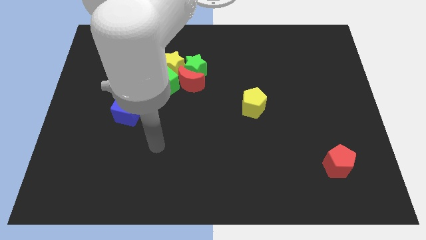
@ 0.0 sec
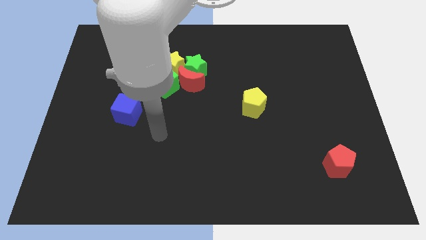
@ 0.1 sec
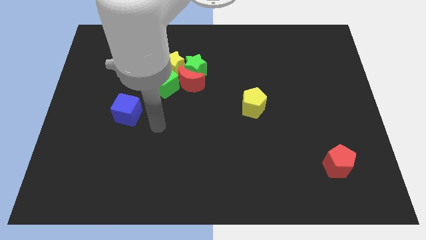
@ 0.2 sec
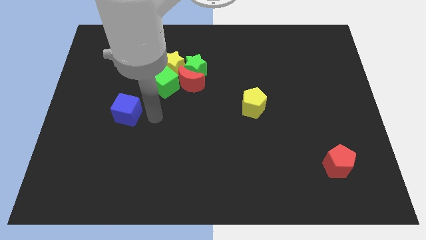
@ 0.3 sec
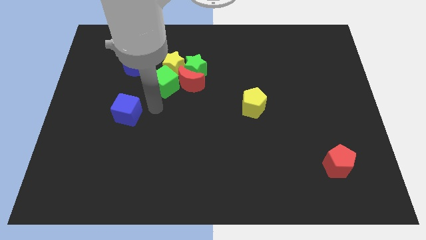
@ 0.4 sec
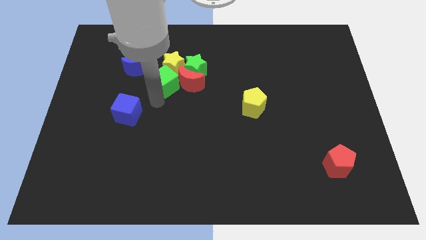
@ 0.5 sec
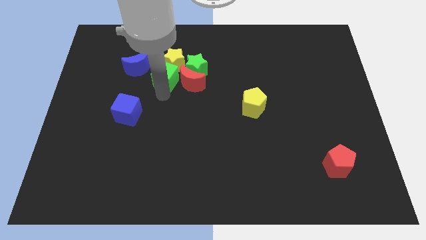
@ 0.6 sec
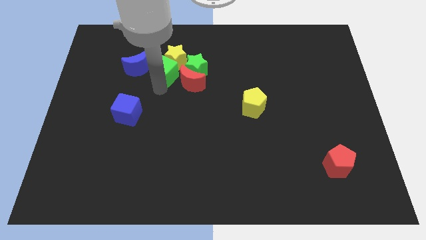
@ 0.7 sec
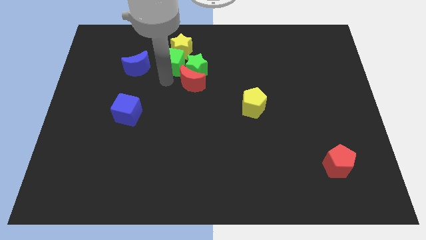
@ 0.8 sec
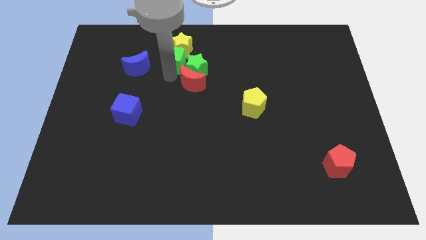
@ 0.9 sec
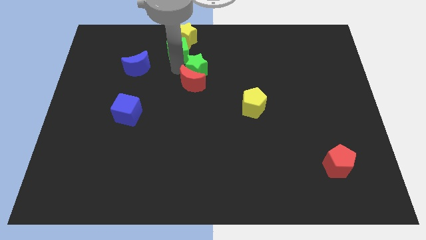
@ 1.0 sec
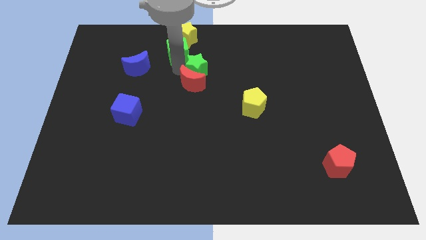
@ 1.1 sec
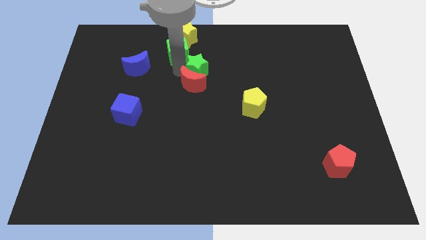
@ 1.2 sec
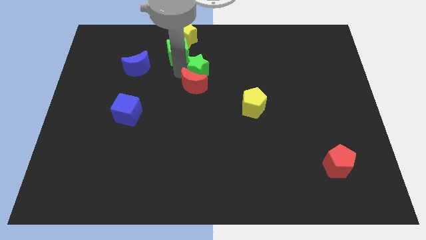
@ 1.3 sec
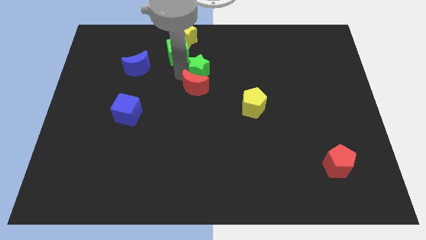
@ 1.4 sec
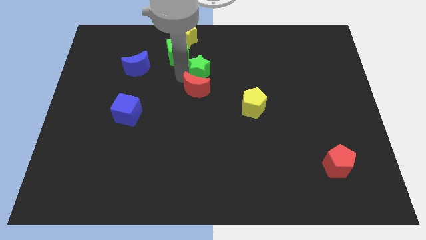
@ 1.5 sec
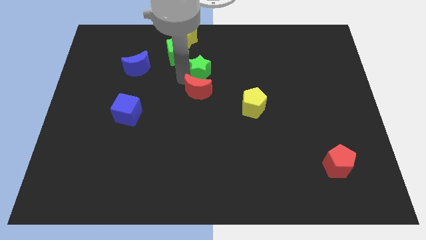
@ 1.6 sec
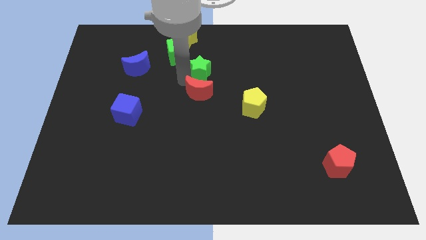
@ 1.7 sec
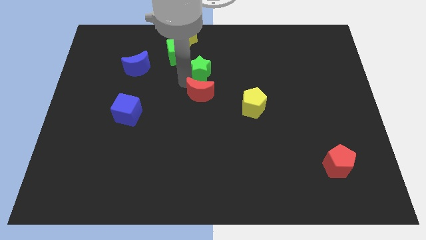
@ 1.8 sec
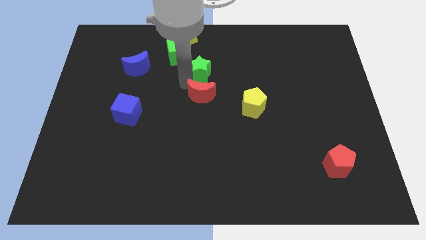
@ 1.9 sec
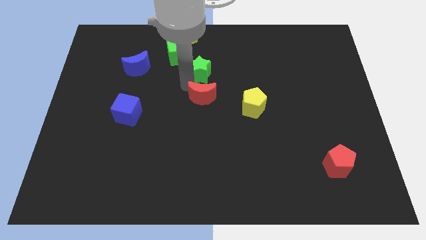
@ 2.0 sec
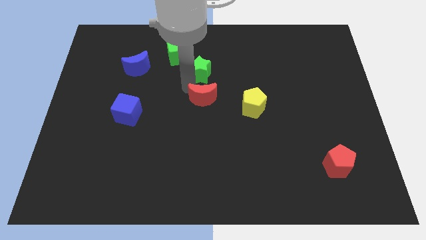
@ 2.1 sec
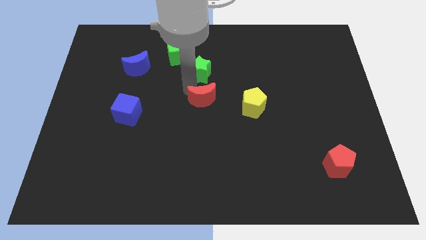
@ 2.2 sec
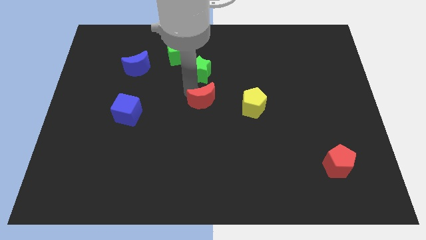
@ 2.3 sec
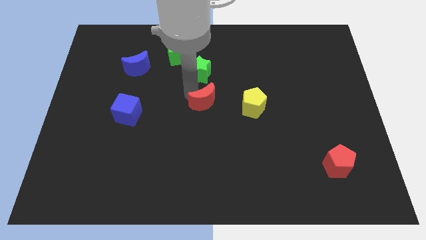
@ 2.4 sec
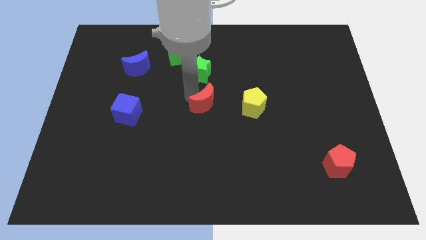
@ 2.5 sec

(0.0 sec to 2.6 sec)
move the red moon a bit downwards and right

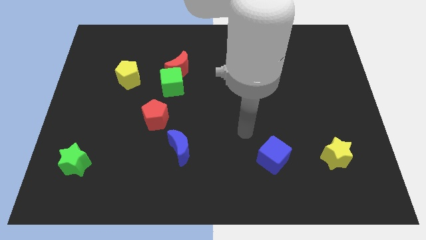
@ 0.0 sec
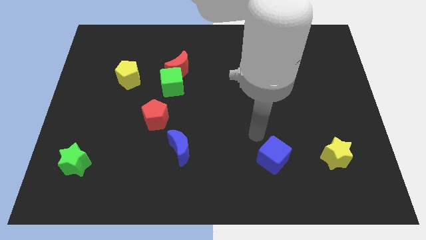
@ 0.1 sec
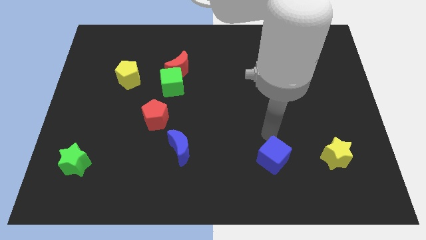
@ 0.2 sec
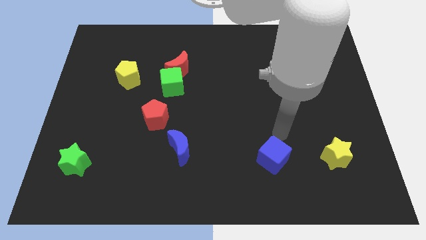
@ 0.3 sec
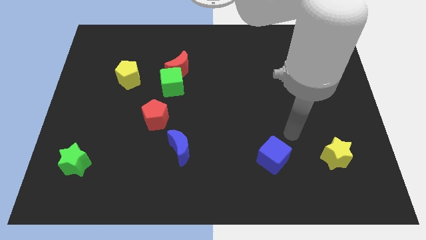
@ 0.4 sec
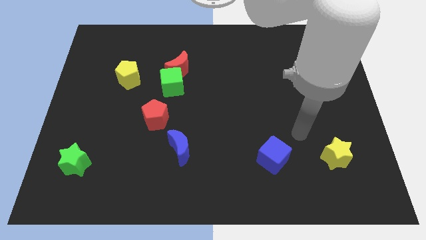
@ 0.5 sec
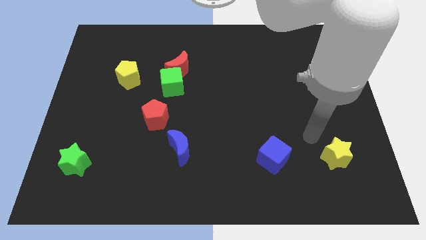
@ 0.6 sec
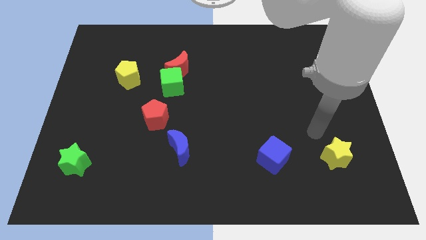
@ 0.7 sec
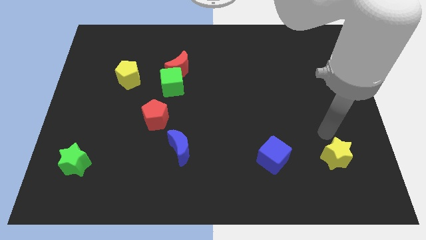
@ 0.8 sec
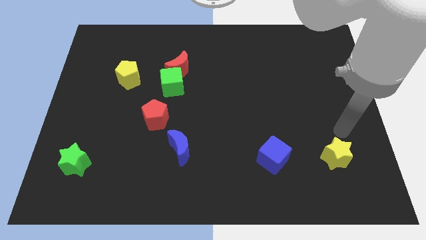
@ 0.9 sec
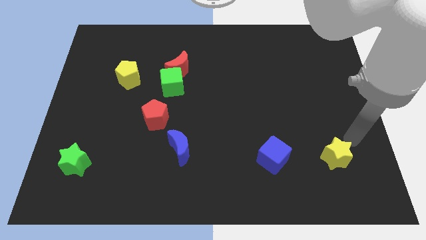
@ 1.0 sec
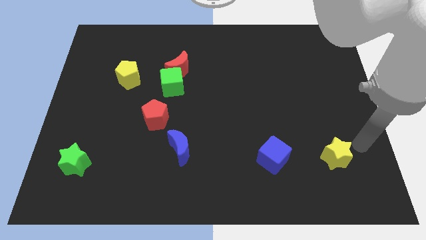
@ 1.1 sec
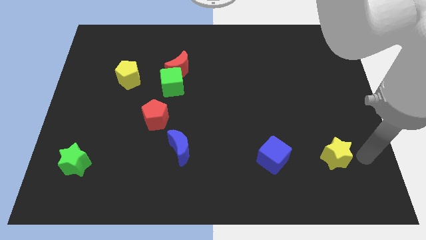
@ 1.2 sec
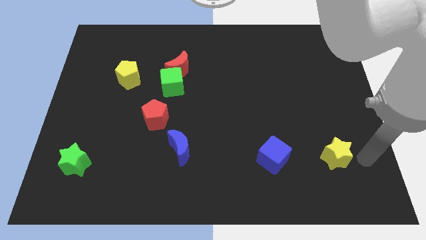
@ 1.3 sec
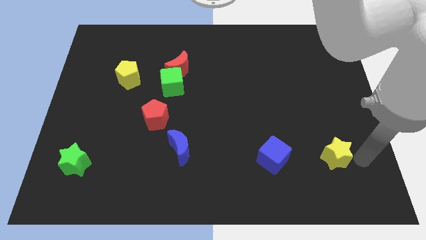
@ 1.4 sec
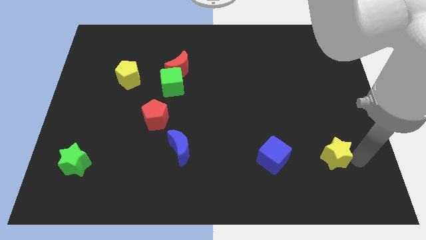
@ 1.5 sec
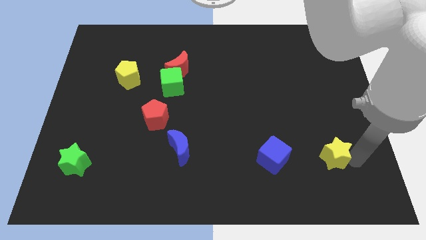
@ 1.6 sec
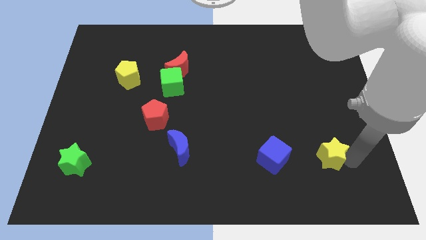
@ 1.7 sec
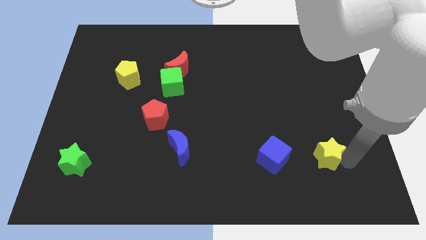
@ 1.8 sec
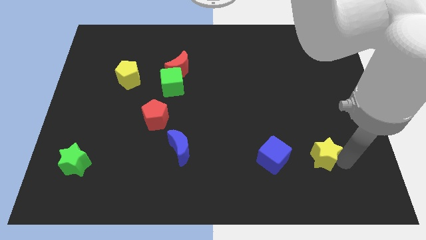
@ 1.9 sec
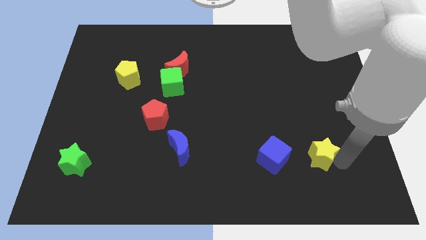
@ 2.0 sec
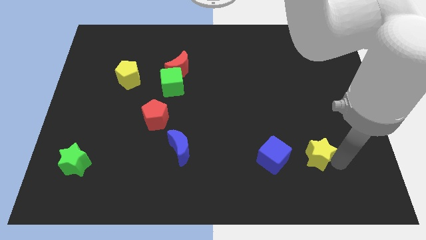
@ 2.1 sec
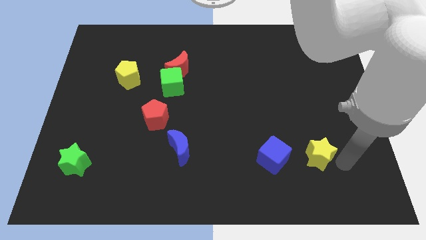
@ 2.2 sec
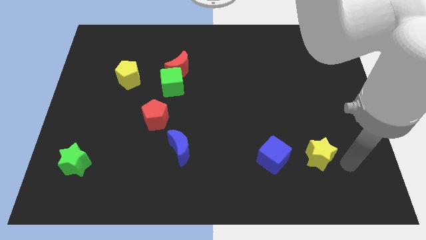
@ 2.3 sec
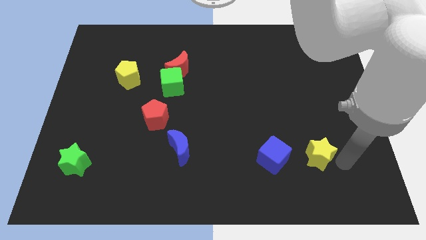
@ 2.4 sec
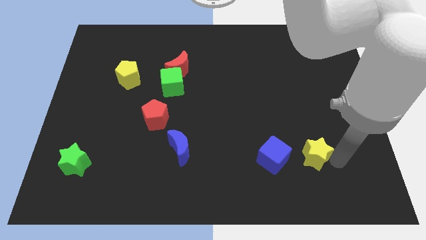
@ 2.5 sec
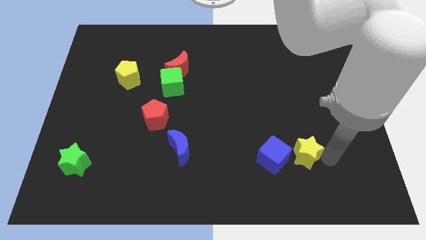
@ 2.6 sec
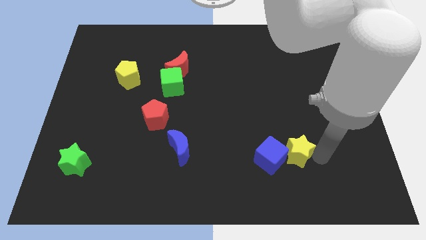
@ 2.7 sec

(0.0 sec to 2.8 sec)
slightly slide the yellow star to the left

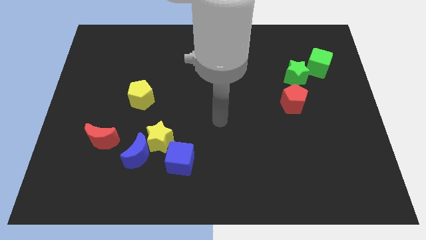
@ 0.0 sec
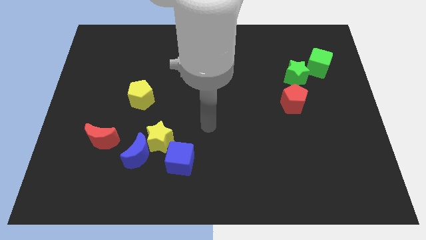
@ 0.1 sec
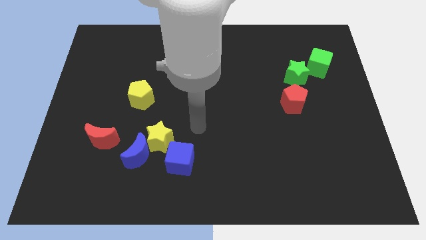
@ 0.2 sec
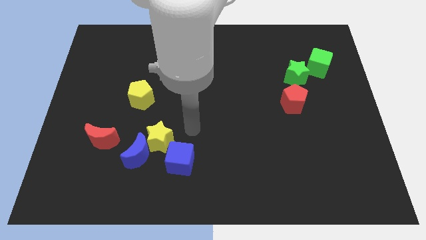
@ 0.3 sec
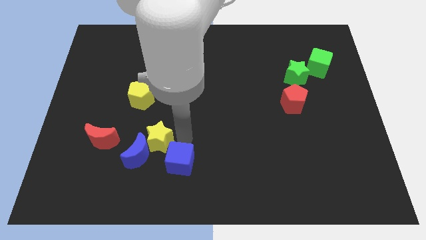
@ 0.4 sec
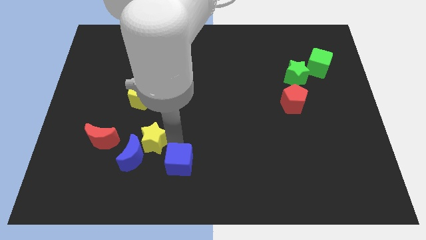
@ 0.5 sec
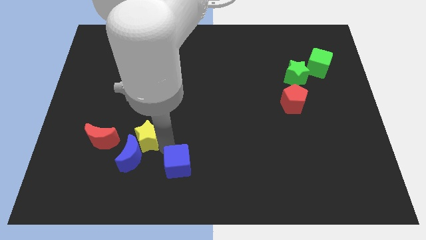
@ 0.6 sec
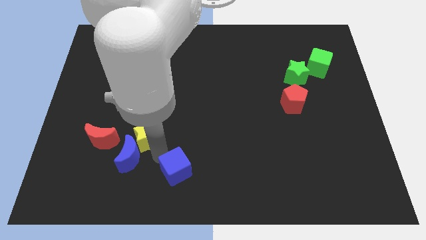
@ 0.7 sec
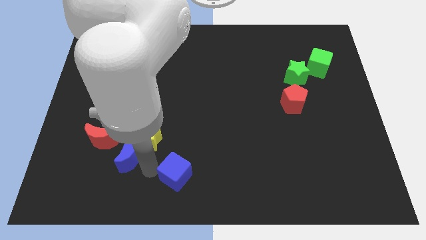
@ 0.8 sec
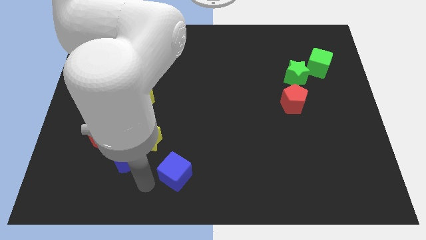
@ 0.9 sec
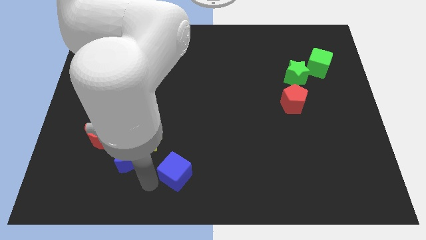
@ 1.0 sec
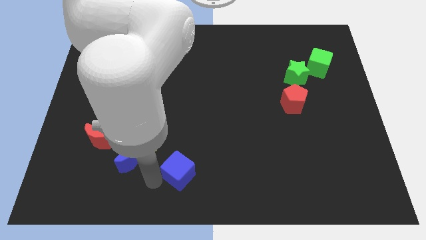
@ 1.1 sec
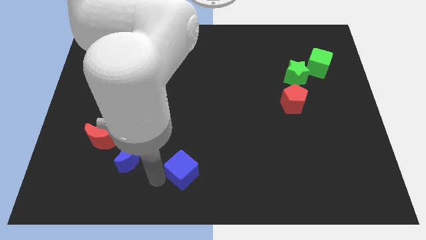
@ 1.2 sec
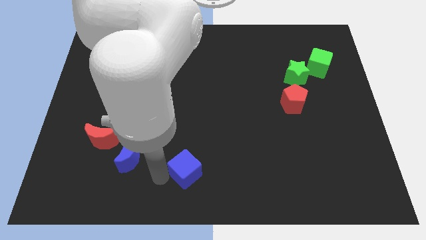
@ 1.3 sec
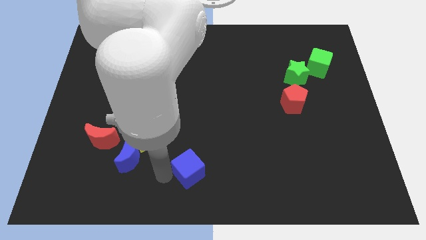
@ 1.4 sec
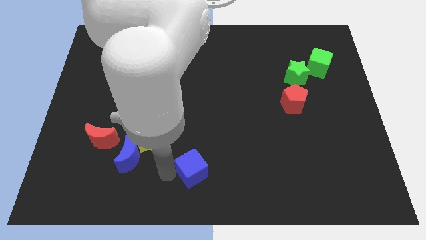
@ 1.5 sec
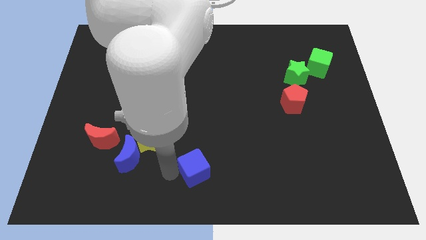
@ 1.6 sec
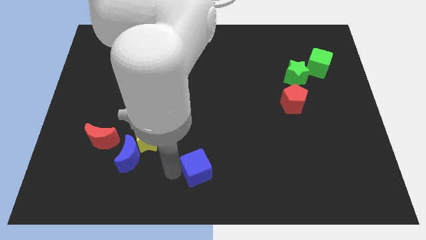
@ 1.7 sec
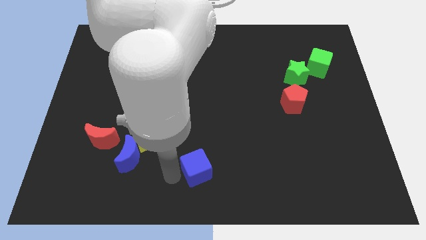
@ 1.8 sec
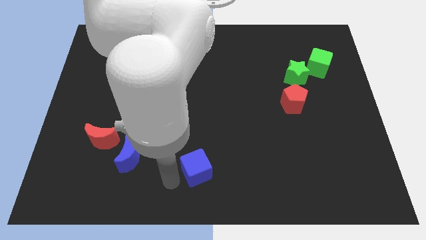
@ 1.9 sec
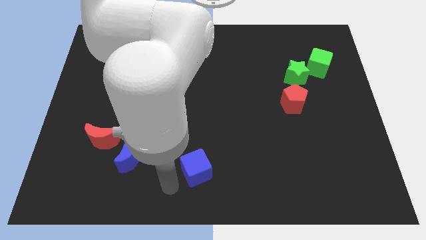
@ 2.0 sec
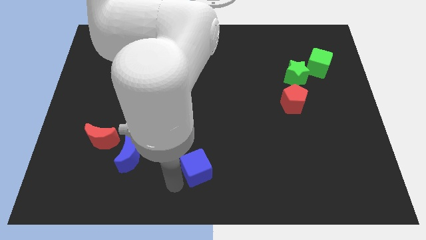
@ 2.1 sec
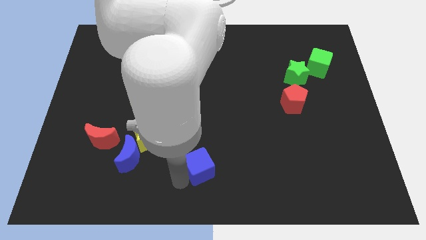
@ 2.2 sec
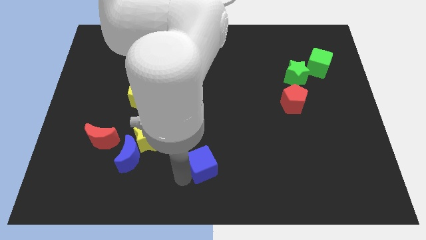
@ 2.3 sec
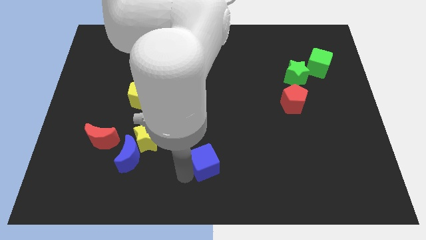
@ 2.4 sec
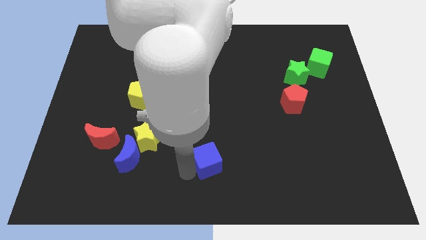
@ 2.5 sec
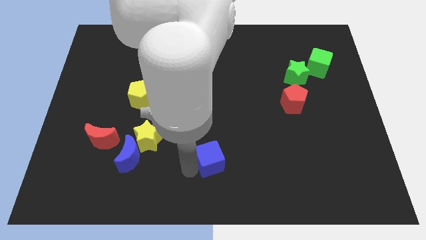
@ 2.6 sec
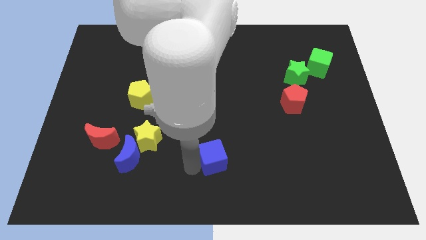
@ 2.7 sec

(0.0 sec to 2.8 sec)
move the blue cube slightly right
